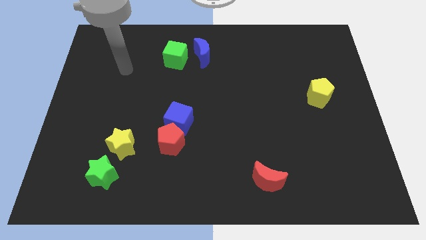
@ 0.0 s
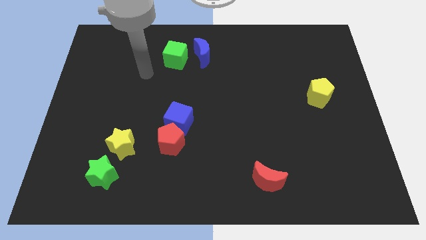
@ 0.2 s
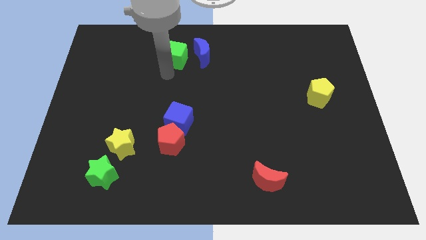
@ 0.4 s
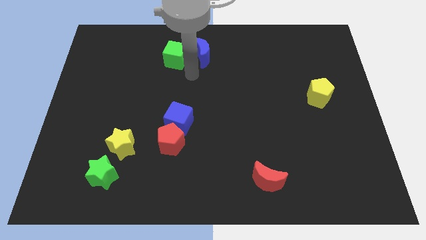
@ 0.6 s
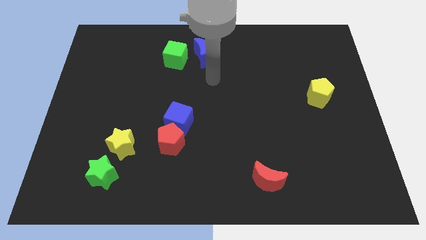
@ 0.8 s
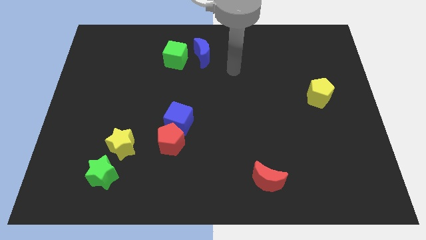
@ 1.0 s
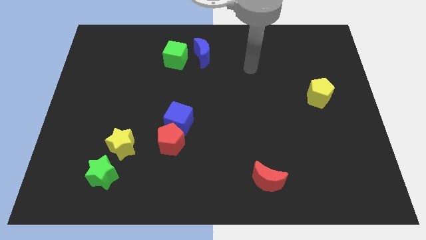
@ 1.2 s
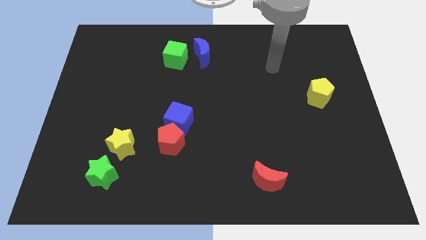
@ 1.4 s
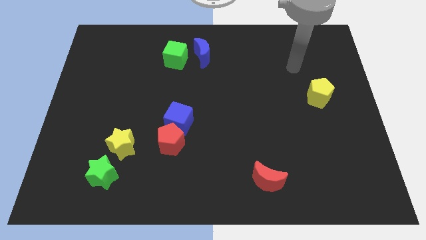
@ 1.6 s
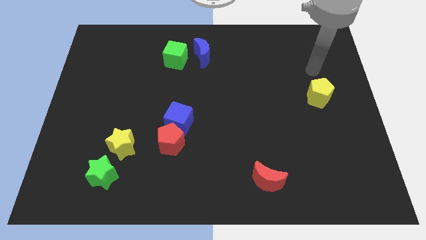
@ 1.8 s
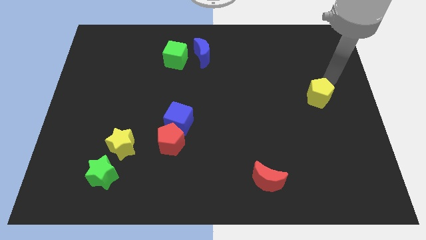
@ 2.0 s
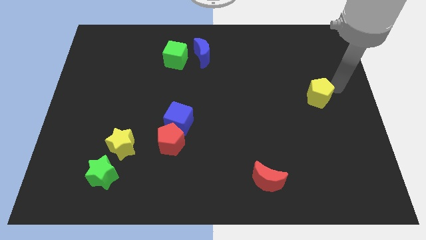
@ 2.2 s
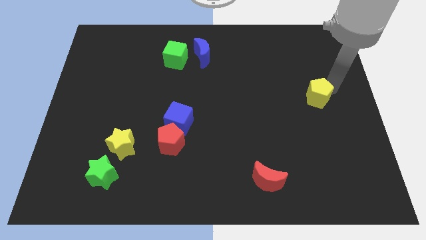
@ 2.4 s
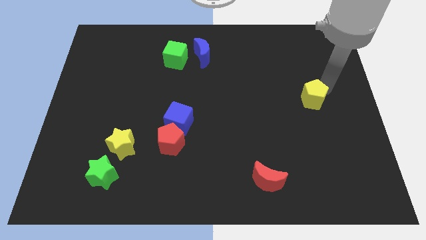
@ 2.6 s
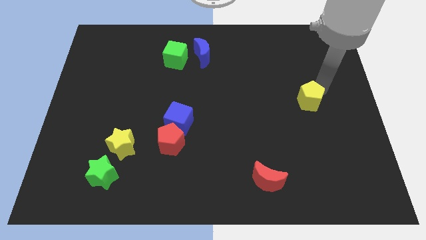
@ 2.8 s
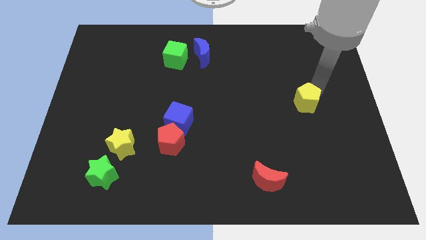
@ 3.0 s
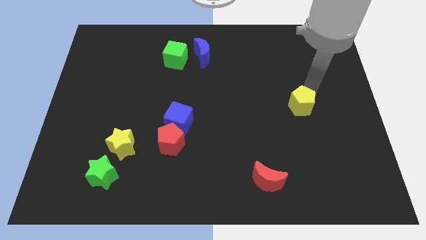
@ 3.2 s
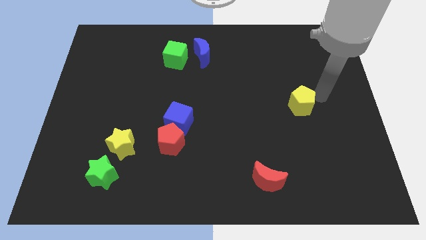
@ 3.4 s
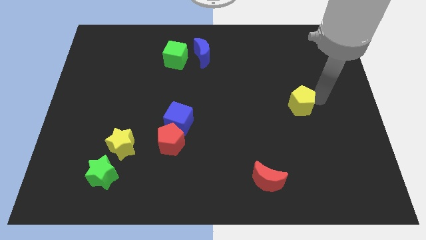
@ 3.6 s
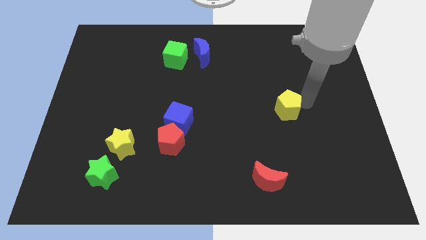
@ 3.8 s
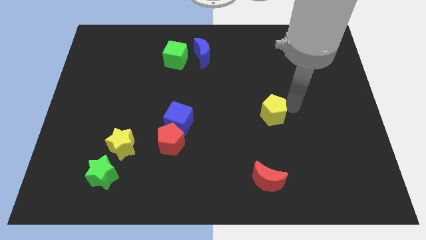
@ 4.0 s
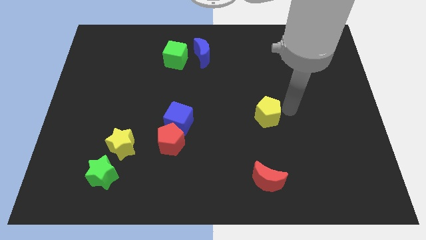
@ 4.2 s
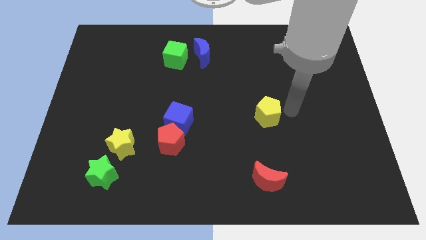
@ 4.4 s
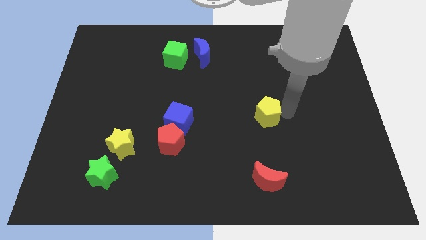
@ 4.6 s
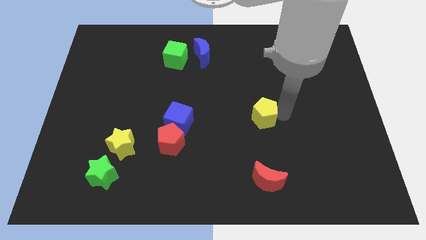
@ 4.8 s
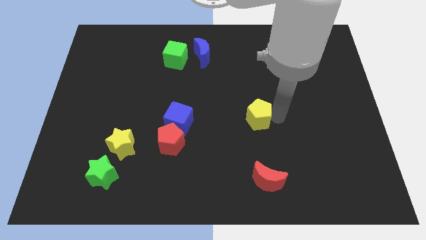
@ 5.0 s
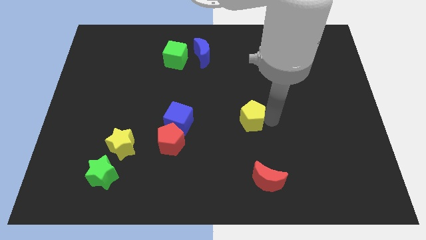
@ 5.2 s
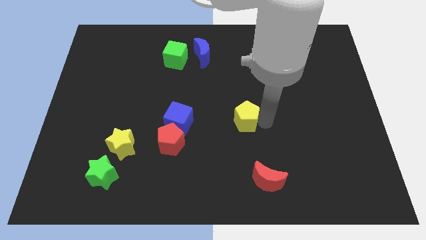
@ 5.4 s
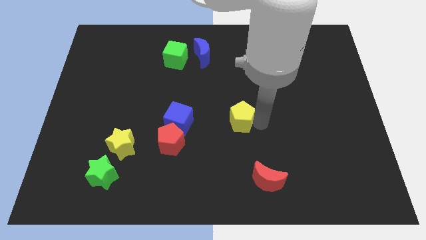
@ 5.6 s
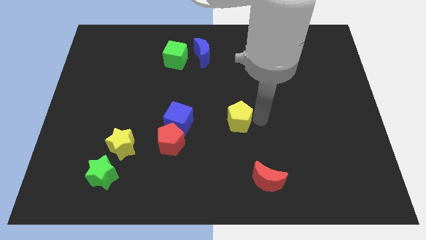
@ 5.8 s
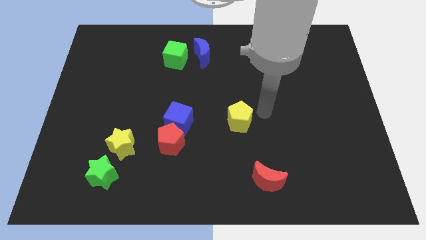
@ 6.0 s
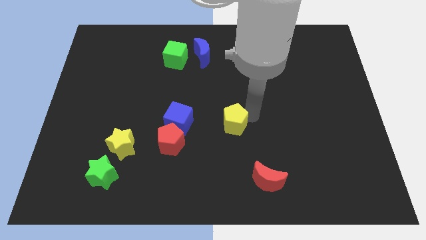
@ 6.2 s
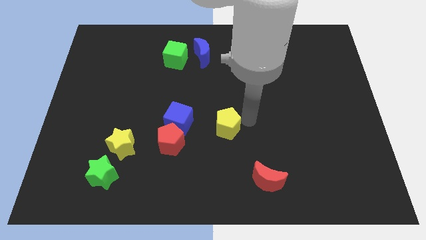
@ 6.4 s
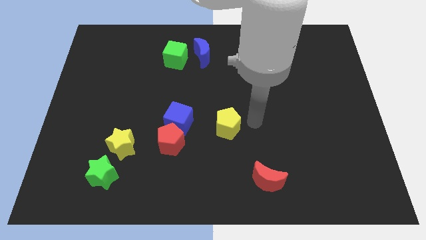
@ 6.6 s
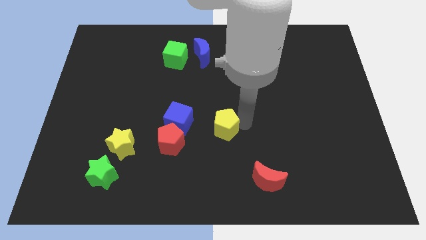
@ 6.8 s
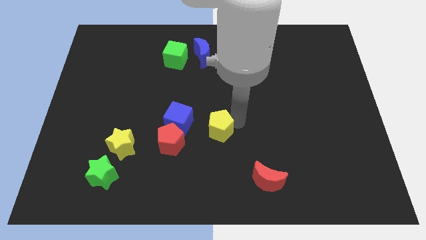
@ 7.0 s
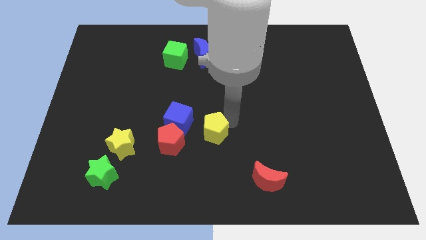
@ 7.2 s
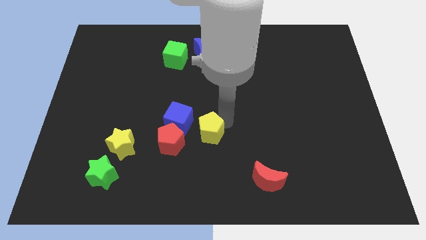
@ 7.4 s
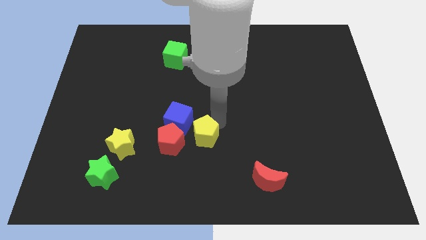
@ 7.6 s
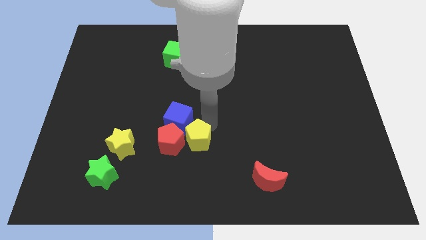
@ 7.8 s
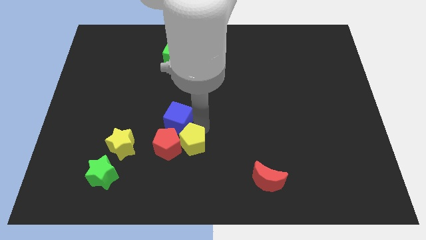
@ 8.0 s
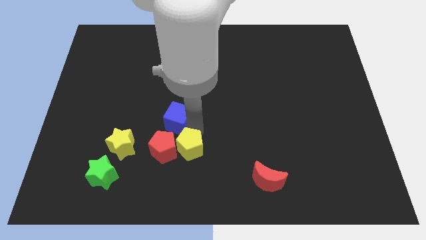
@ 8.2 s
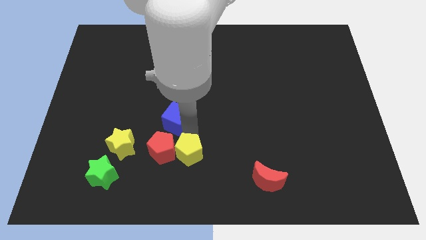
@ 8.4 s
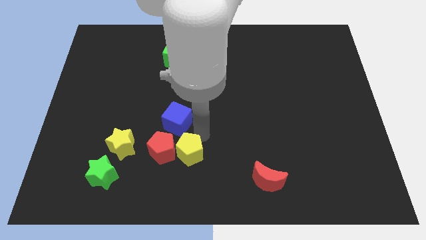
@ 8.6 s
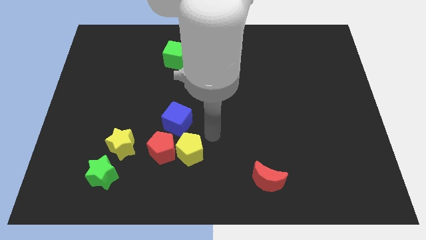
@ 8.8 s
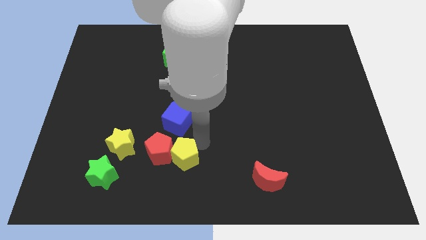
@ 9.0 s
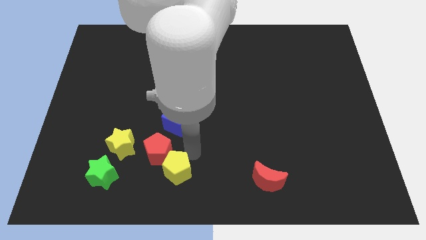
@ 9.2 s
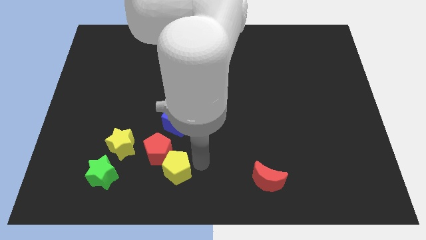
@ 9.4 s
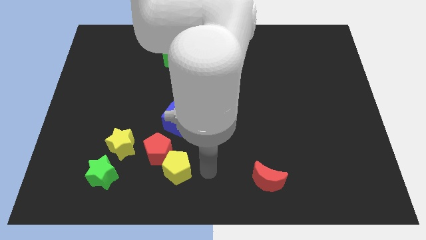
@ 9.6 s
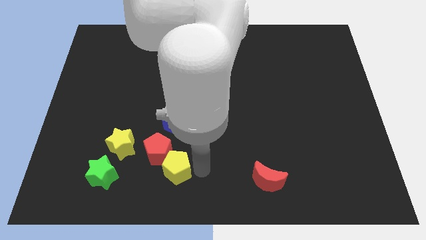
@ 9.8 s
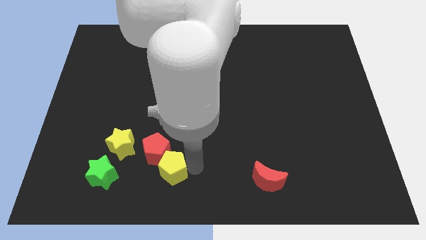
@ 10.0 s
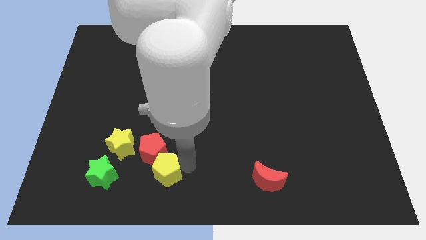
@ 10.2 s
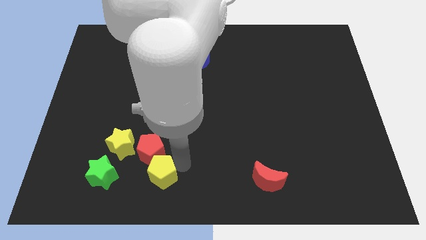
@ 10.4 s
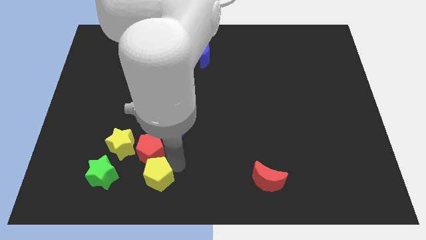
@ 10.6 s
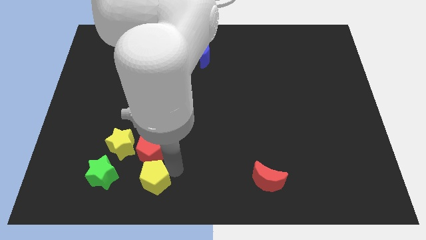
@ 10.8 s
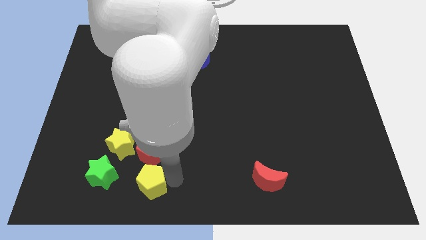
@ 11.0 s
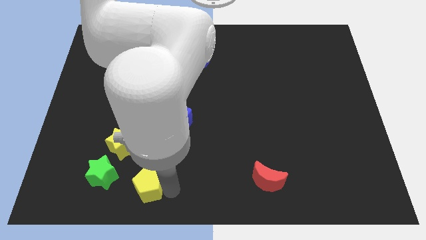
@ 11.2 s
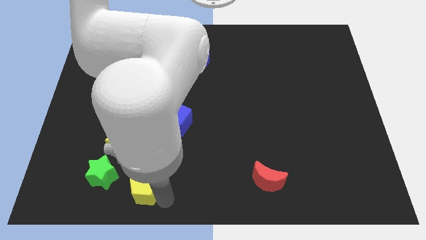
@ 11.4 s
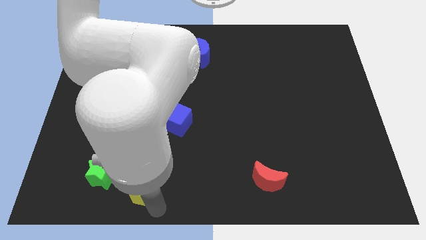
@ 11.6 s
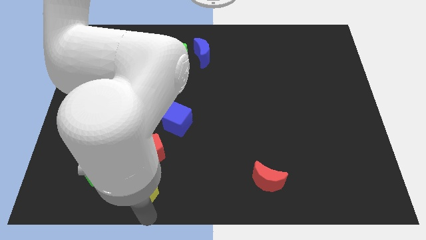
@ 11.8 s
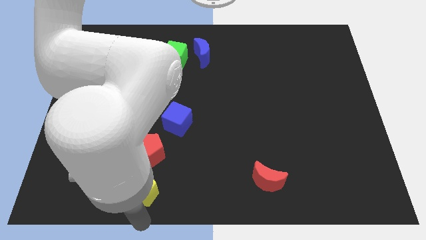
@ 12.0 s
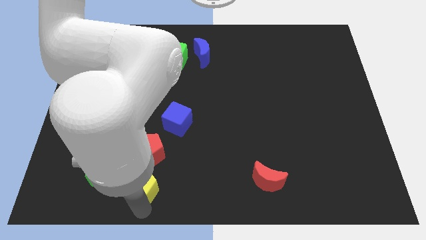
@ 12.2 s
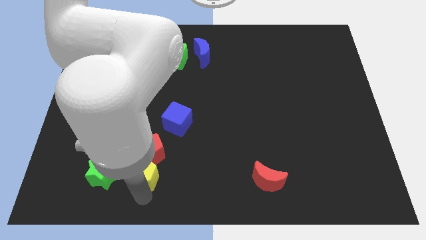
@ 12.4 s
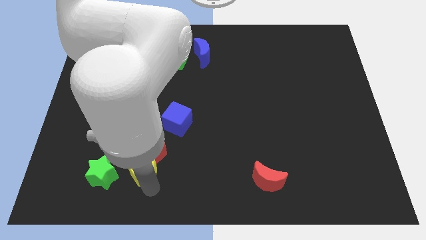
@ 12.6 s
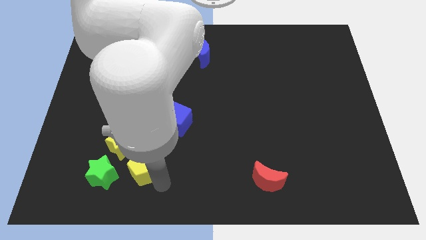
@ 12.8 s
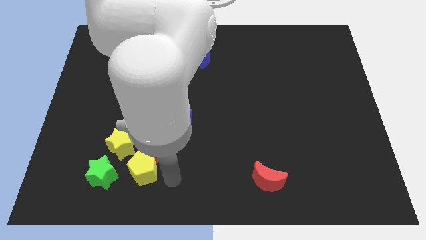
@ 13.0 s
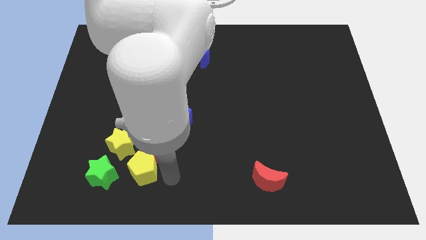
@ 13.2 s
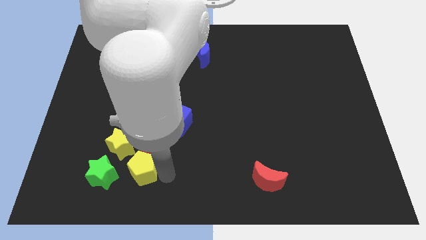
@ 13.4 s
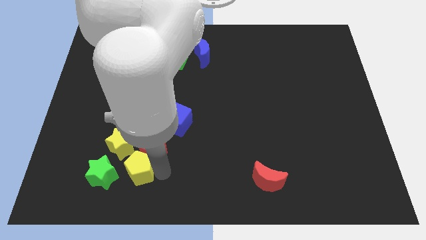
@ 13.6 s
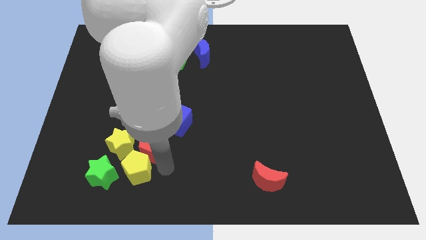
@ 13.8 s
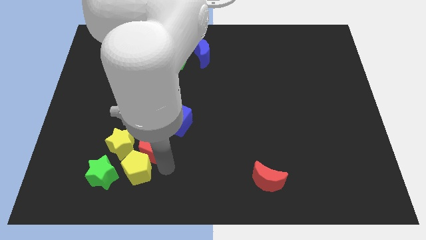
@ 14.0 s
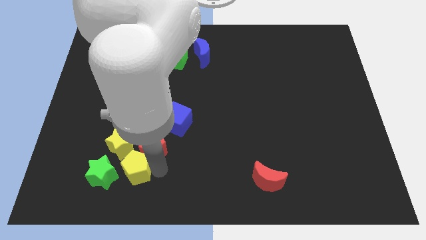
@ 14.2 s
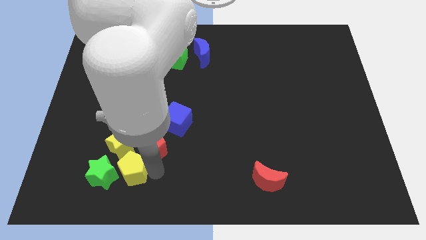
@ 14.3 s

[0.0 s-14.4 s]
move the yellow pentagon close to the green star
